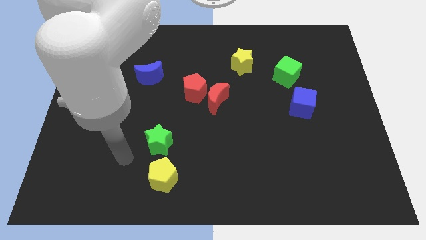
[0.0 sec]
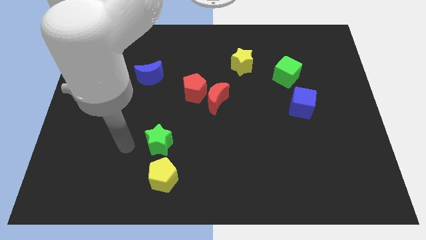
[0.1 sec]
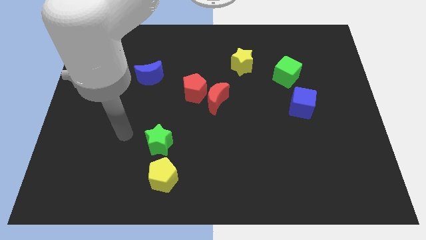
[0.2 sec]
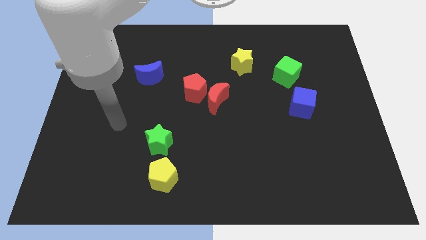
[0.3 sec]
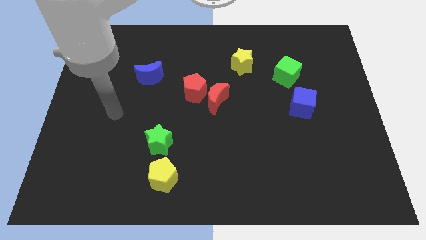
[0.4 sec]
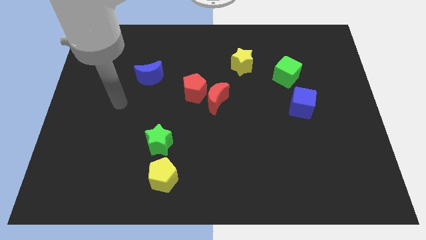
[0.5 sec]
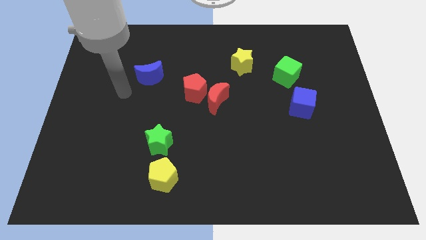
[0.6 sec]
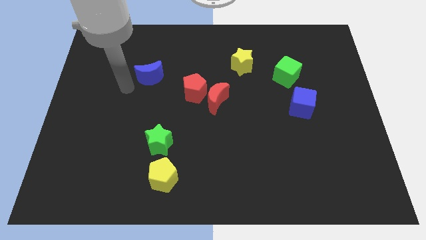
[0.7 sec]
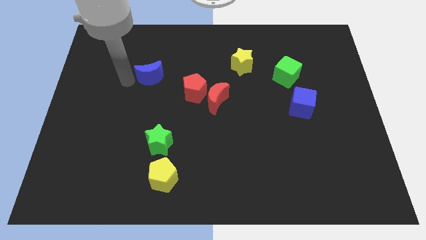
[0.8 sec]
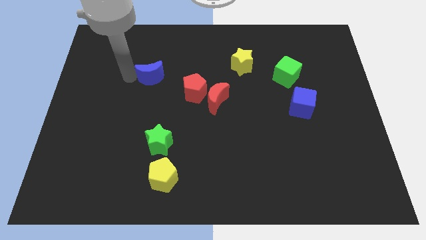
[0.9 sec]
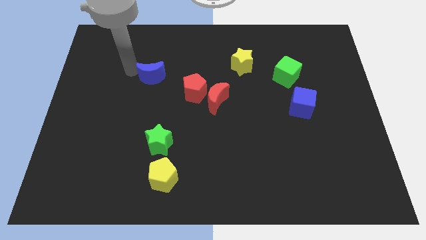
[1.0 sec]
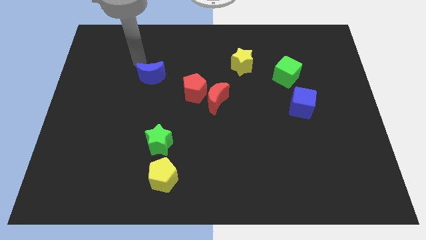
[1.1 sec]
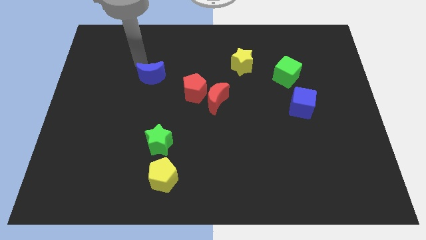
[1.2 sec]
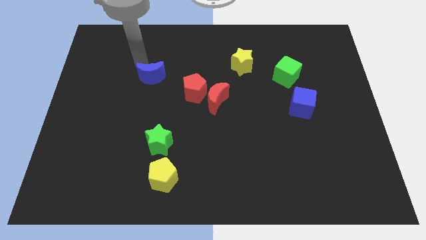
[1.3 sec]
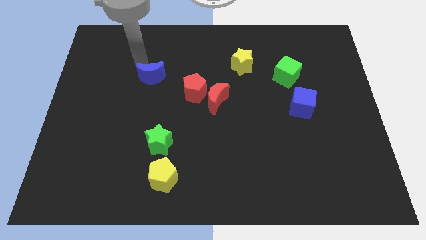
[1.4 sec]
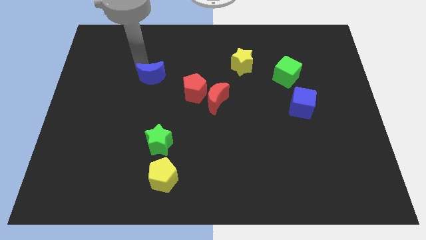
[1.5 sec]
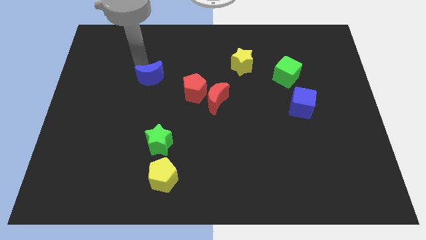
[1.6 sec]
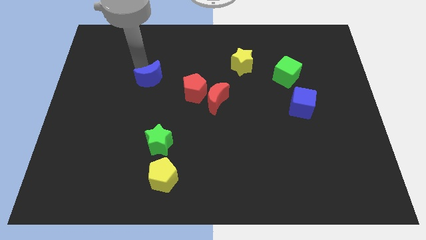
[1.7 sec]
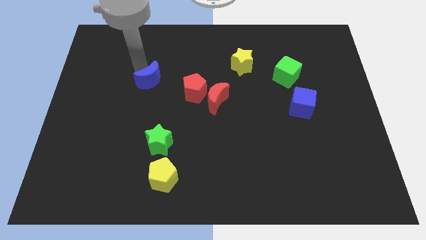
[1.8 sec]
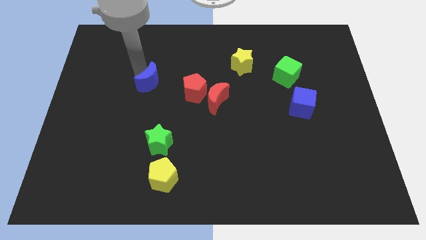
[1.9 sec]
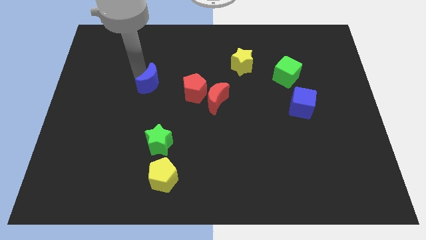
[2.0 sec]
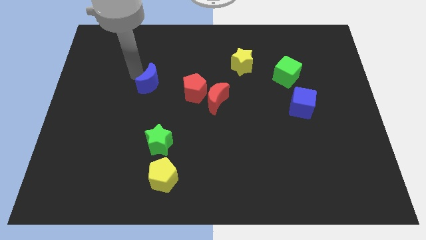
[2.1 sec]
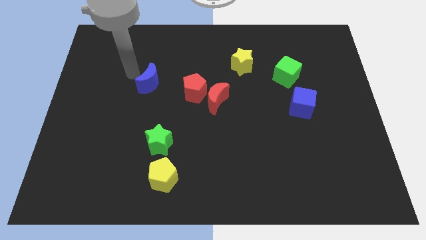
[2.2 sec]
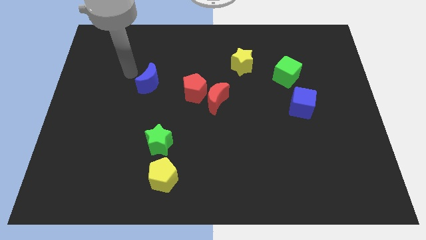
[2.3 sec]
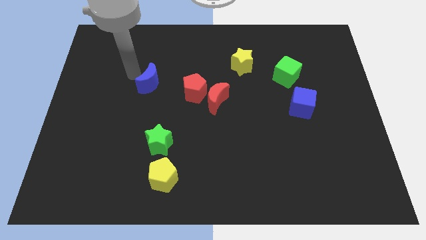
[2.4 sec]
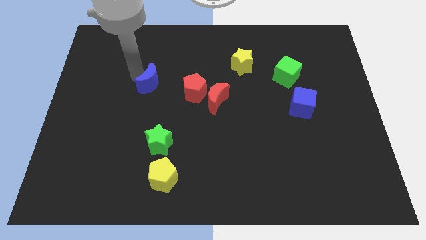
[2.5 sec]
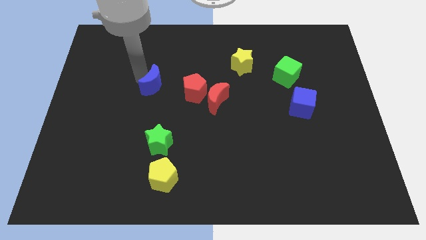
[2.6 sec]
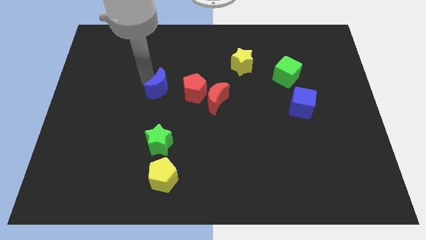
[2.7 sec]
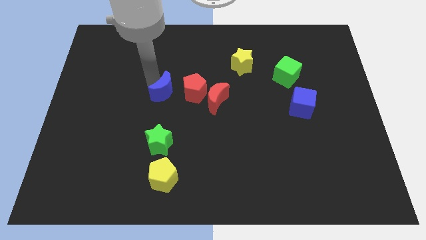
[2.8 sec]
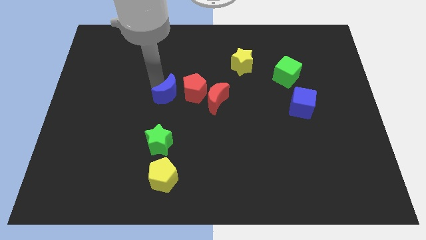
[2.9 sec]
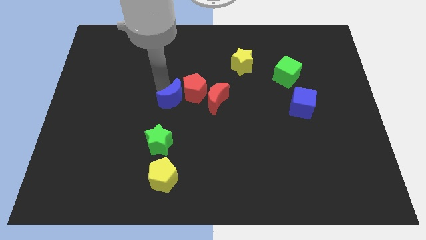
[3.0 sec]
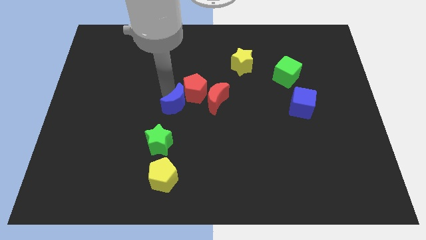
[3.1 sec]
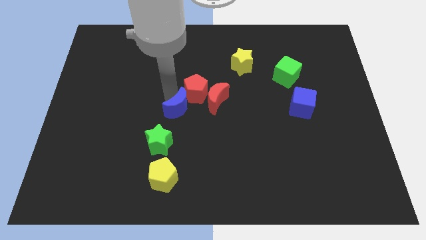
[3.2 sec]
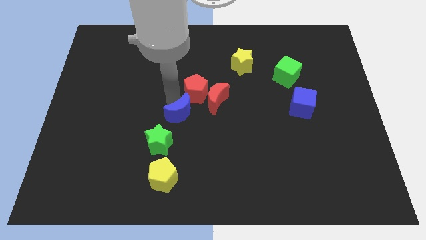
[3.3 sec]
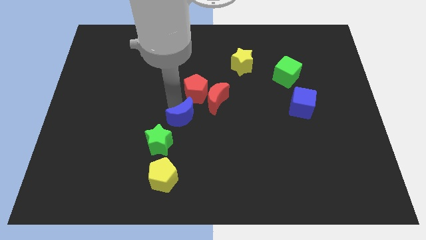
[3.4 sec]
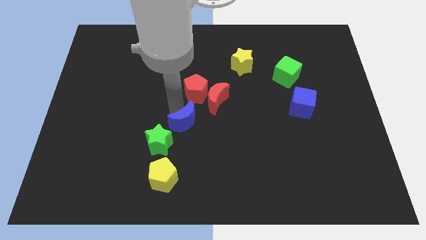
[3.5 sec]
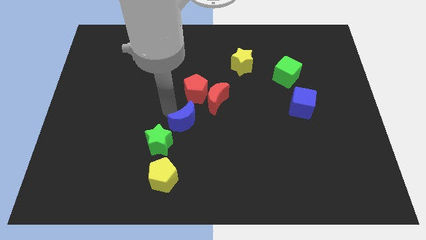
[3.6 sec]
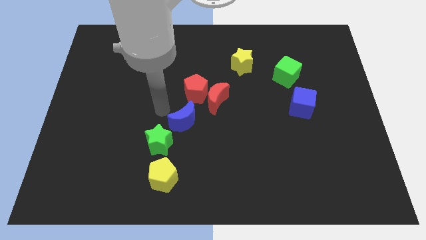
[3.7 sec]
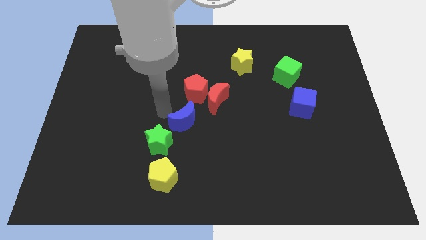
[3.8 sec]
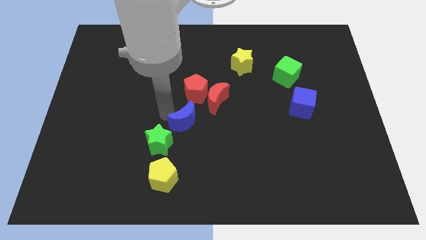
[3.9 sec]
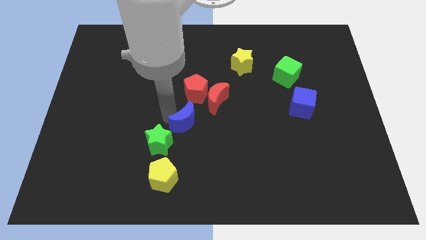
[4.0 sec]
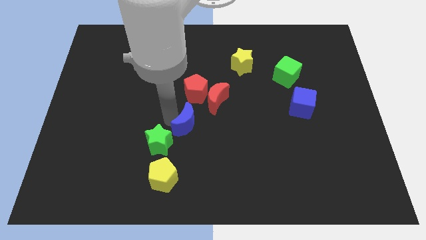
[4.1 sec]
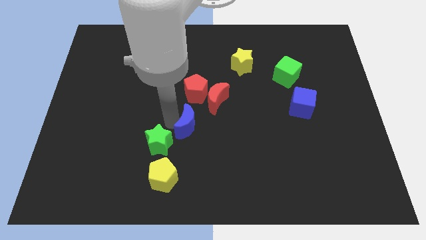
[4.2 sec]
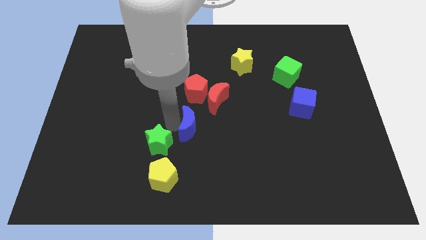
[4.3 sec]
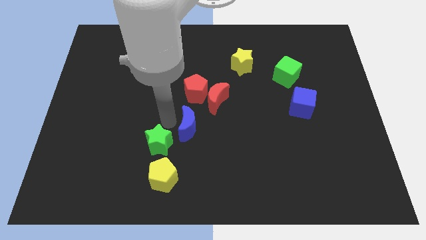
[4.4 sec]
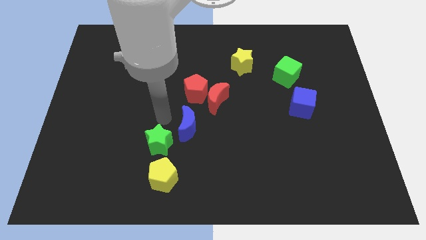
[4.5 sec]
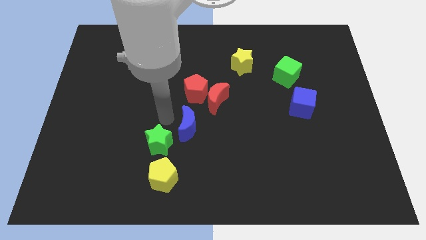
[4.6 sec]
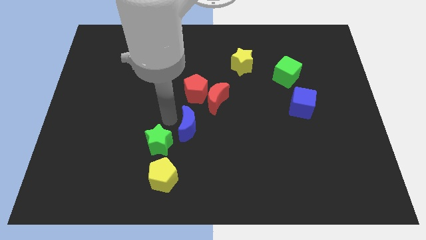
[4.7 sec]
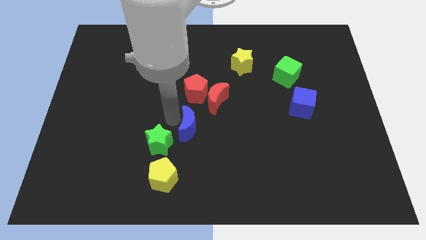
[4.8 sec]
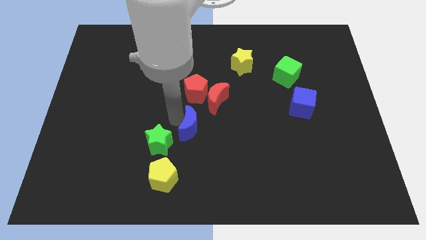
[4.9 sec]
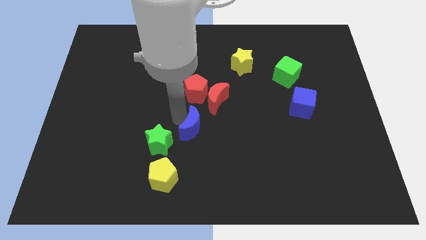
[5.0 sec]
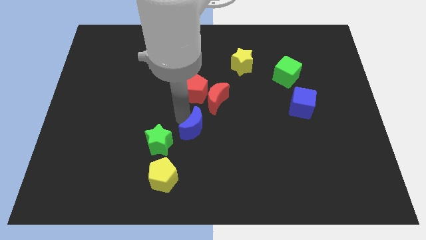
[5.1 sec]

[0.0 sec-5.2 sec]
push the blue moon below the red moon

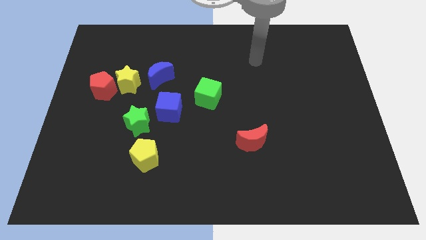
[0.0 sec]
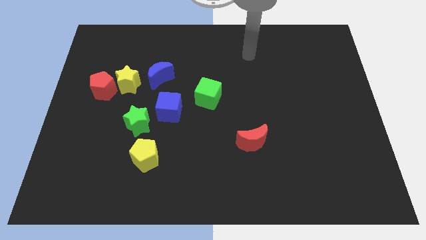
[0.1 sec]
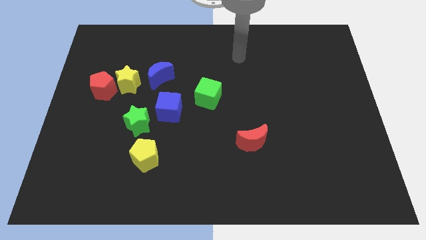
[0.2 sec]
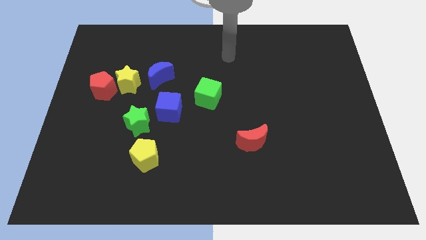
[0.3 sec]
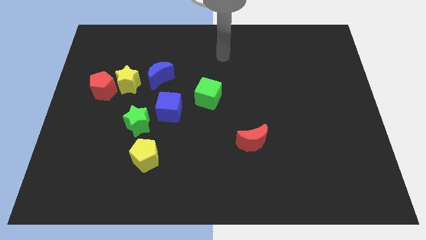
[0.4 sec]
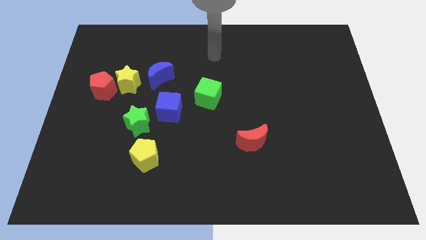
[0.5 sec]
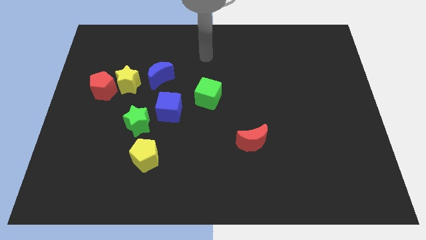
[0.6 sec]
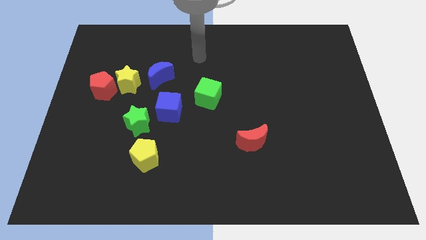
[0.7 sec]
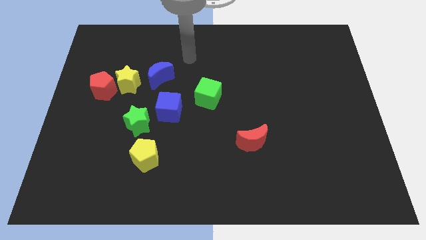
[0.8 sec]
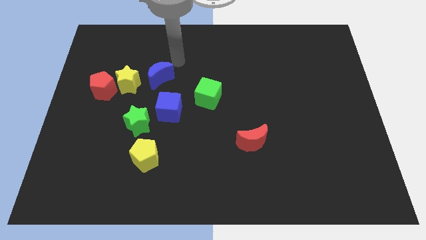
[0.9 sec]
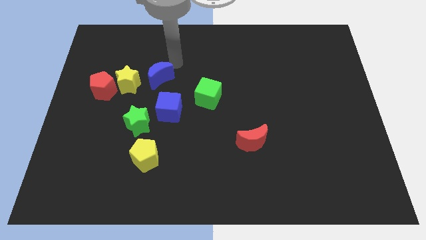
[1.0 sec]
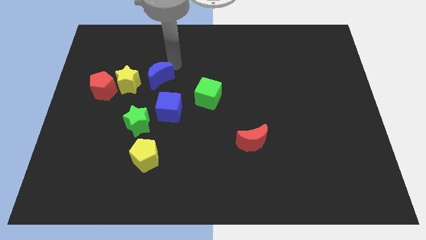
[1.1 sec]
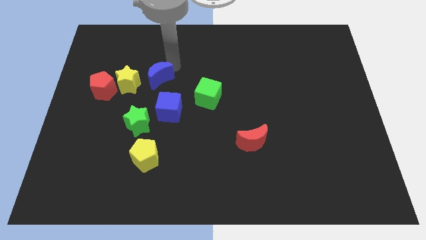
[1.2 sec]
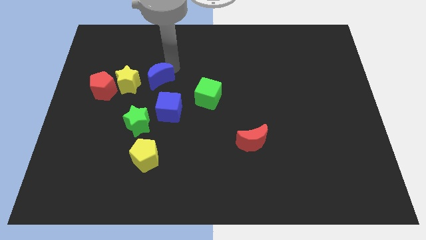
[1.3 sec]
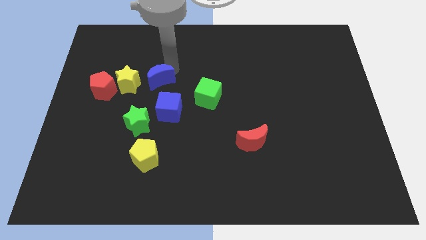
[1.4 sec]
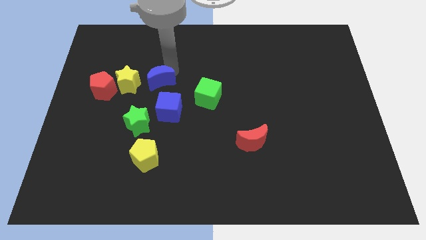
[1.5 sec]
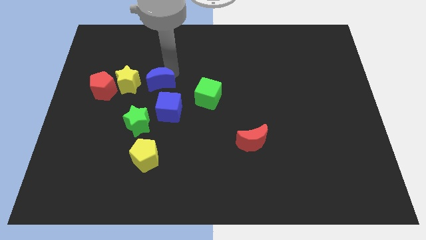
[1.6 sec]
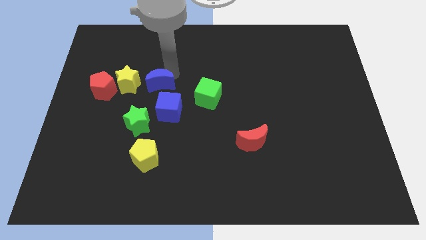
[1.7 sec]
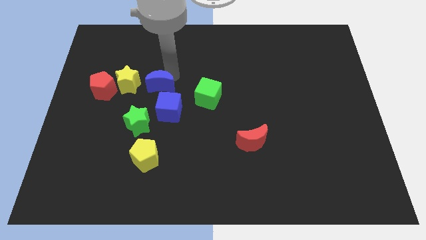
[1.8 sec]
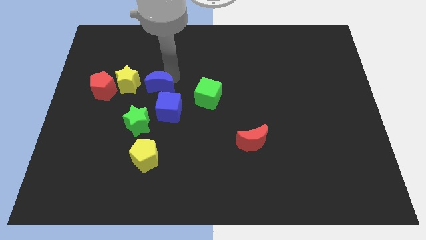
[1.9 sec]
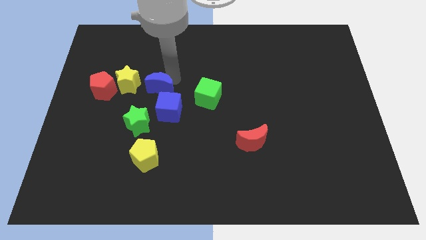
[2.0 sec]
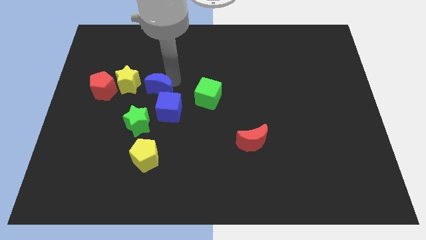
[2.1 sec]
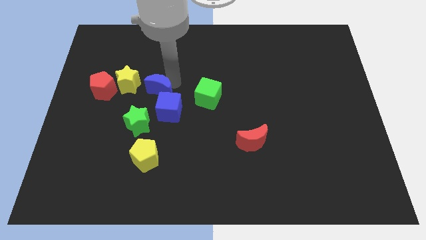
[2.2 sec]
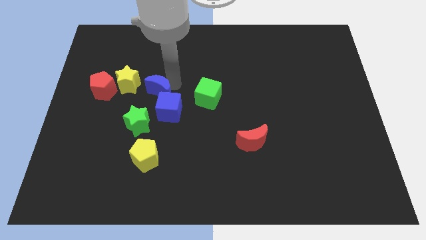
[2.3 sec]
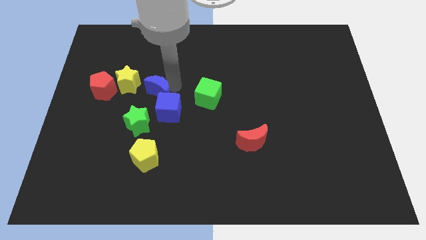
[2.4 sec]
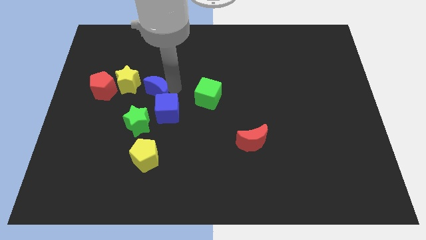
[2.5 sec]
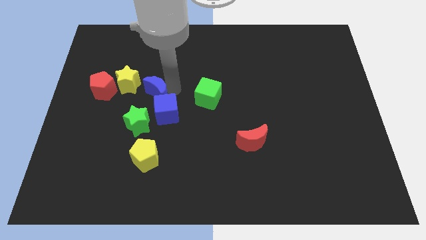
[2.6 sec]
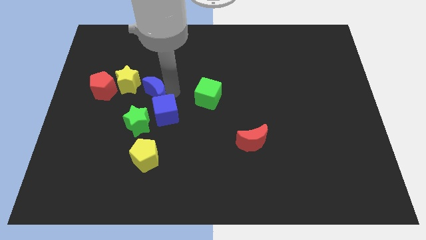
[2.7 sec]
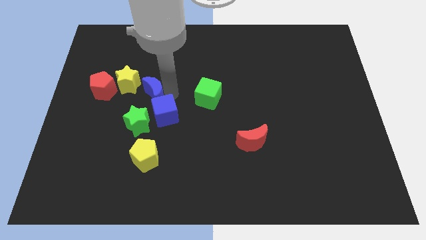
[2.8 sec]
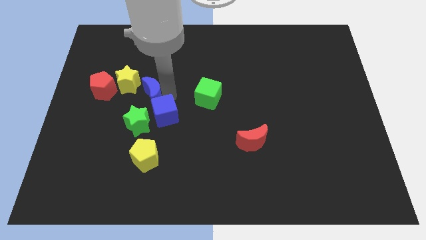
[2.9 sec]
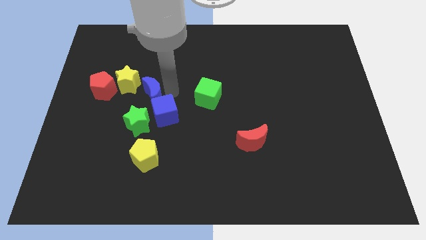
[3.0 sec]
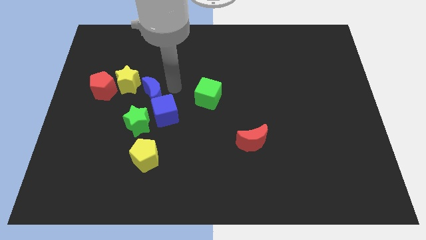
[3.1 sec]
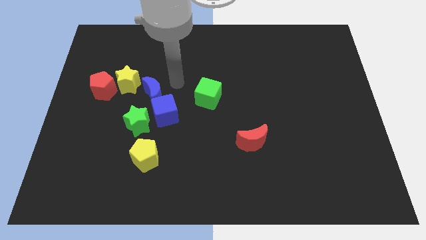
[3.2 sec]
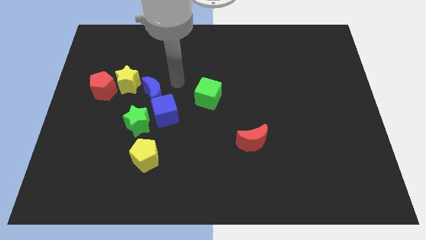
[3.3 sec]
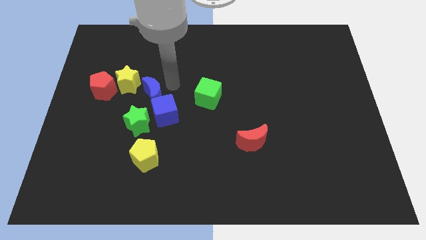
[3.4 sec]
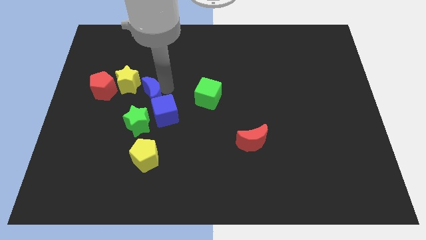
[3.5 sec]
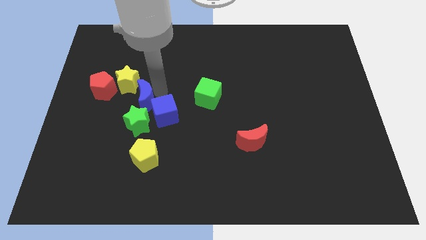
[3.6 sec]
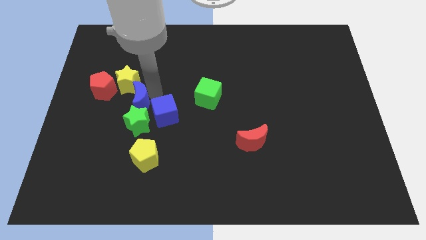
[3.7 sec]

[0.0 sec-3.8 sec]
push the blue moon below the yellow star
